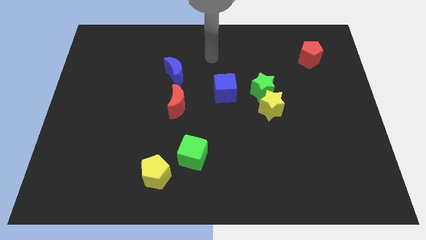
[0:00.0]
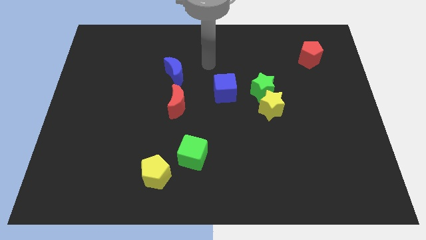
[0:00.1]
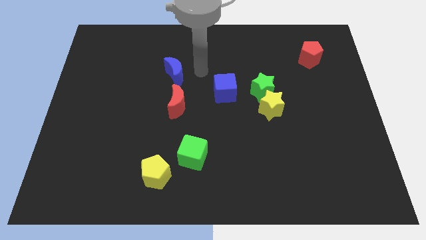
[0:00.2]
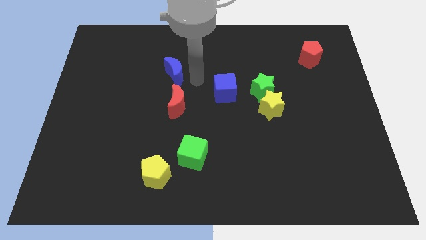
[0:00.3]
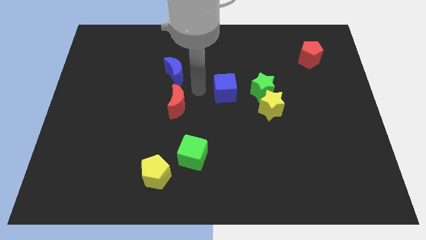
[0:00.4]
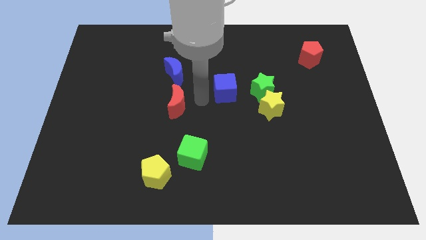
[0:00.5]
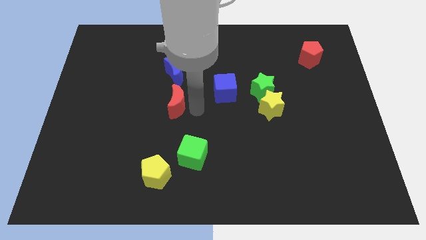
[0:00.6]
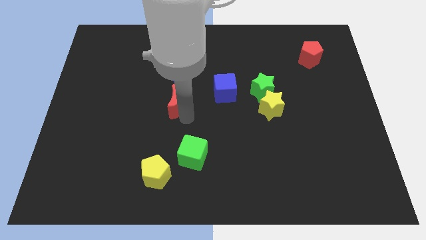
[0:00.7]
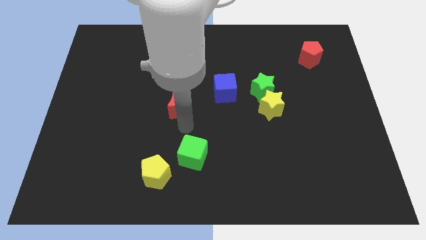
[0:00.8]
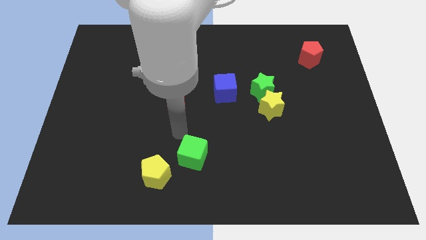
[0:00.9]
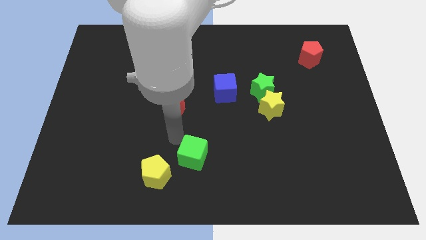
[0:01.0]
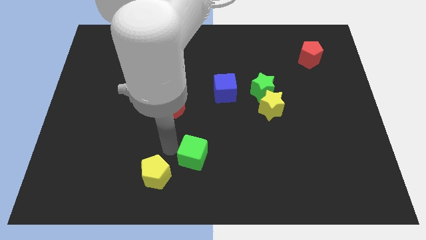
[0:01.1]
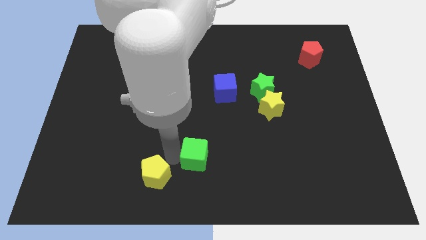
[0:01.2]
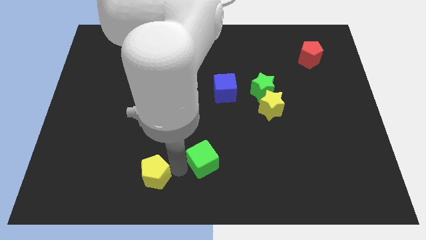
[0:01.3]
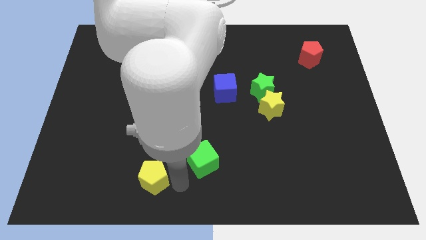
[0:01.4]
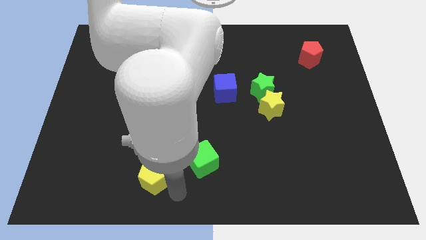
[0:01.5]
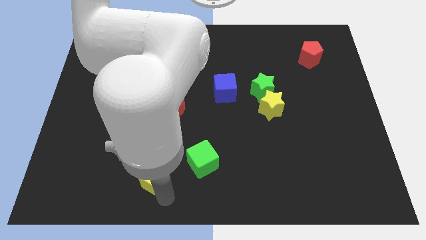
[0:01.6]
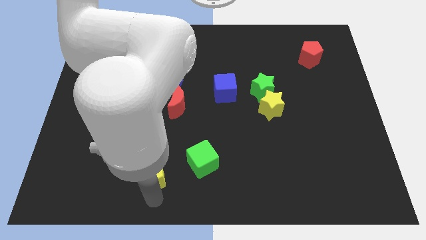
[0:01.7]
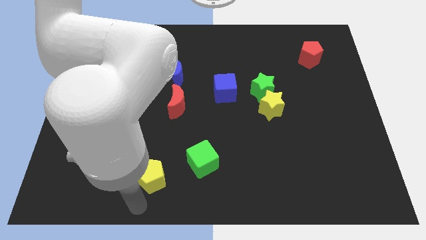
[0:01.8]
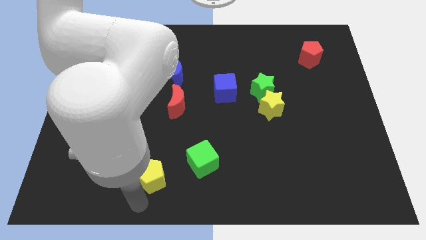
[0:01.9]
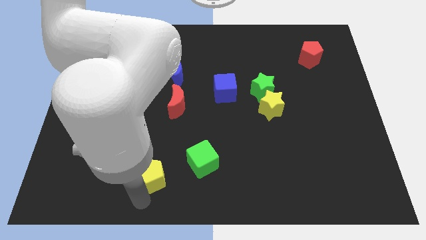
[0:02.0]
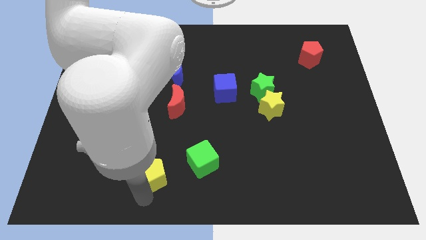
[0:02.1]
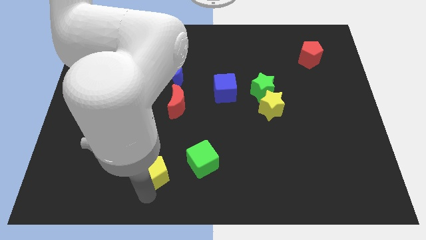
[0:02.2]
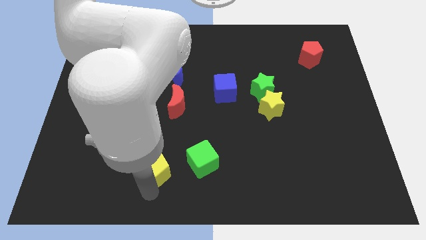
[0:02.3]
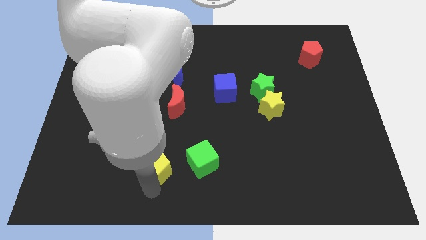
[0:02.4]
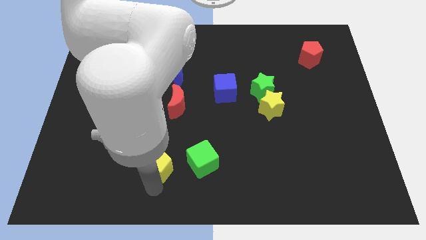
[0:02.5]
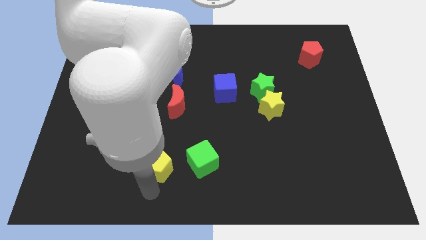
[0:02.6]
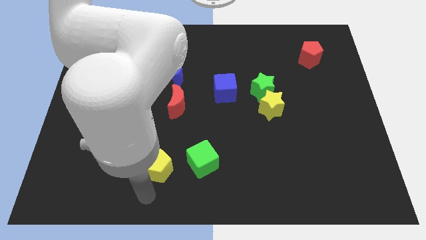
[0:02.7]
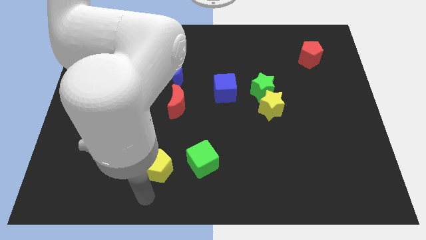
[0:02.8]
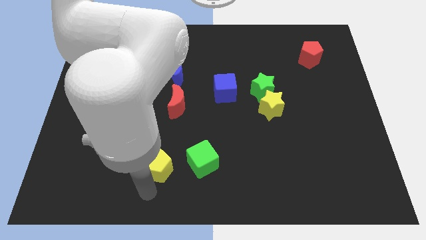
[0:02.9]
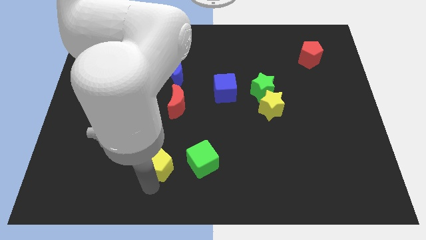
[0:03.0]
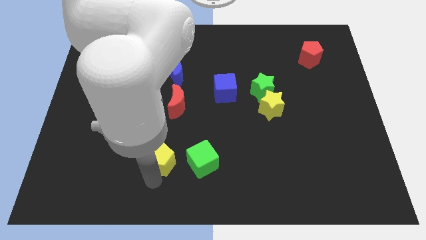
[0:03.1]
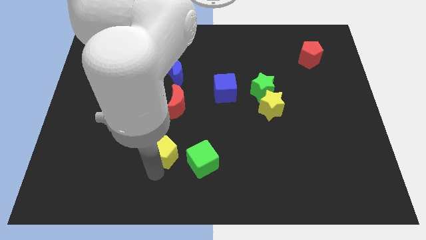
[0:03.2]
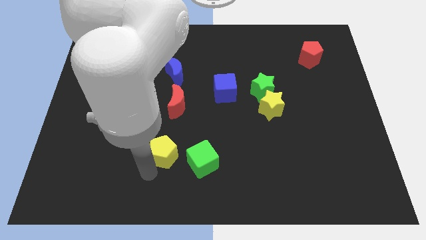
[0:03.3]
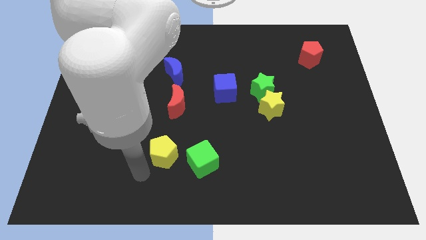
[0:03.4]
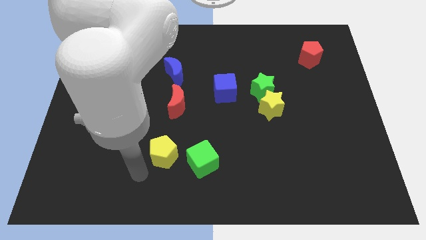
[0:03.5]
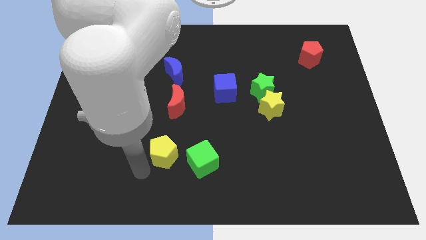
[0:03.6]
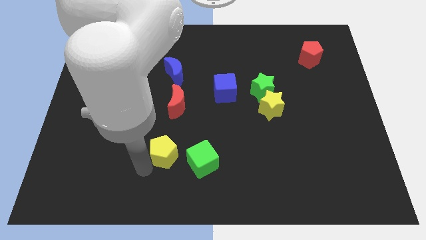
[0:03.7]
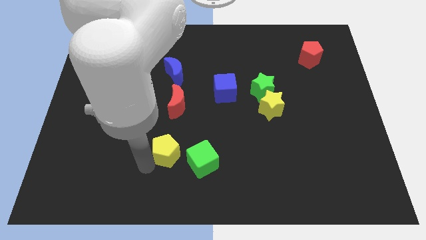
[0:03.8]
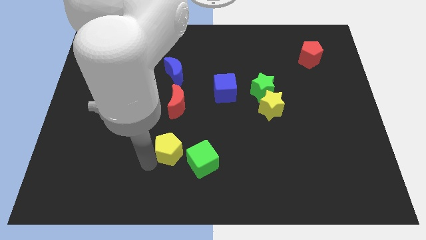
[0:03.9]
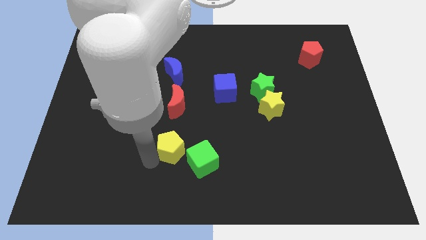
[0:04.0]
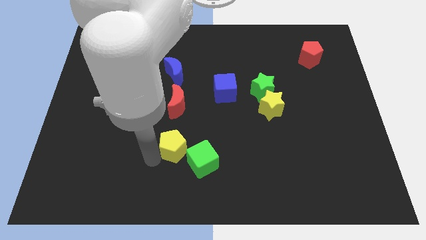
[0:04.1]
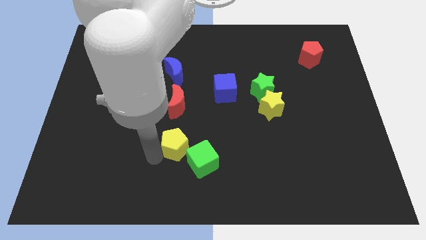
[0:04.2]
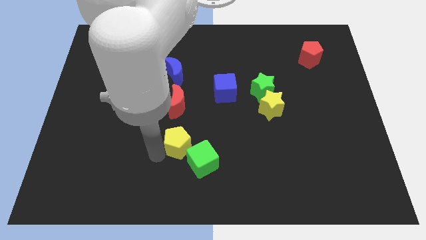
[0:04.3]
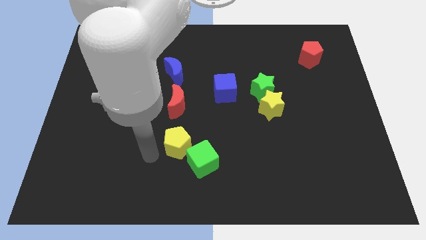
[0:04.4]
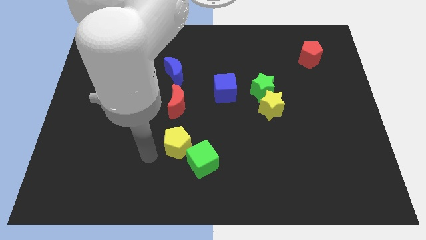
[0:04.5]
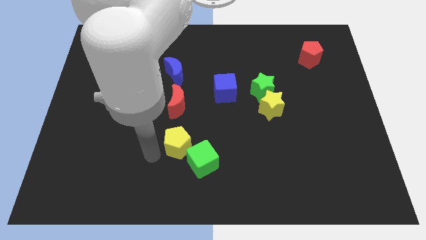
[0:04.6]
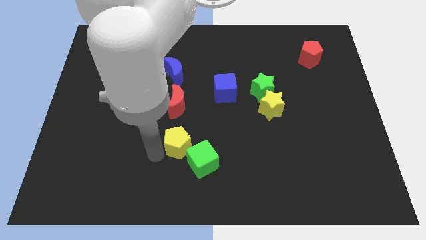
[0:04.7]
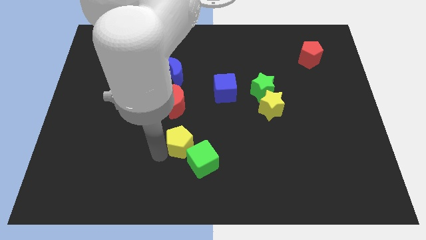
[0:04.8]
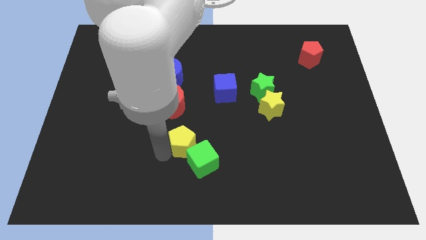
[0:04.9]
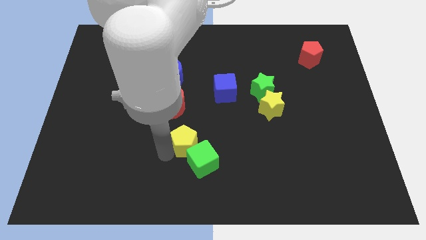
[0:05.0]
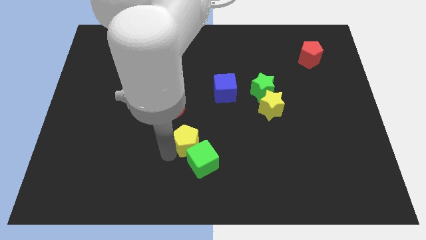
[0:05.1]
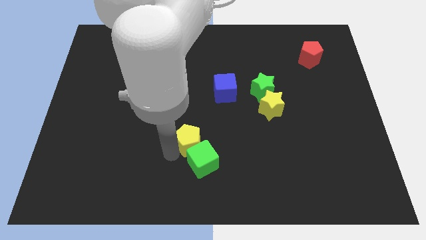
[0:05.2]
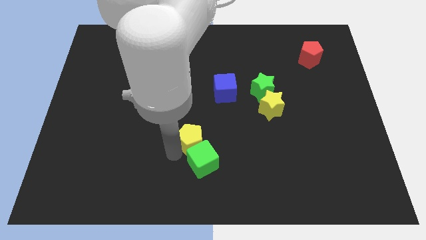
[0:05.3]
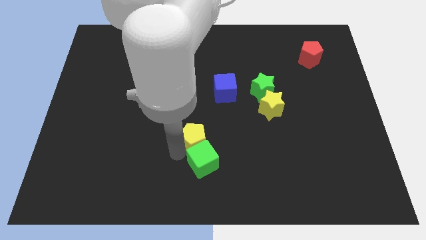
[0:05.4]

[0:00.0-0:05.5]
push the yellow pentagon to the center of the board

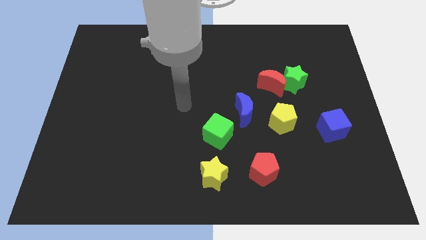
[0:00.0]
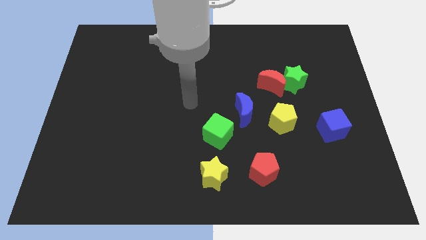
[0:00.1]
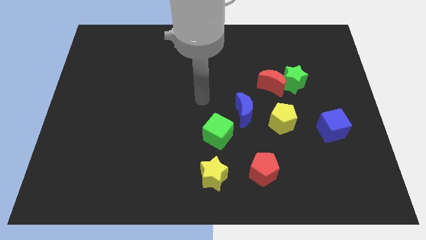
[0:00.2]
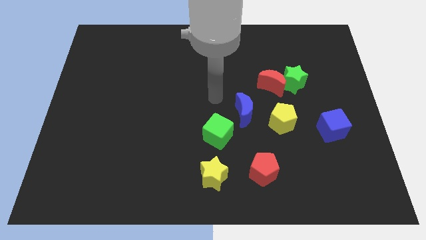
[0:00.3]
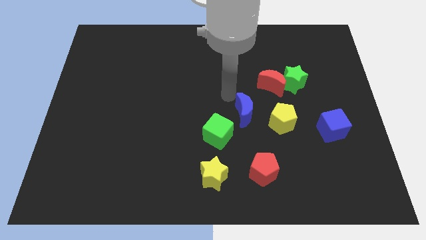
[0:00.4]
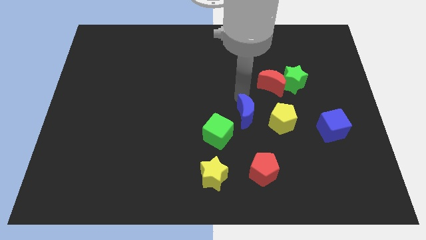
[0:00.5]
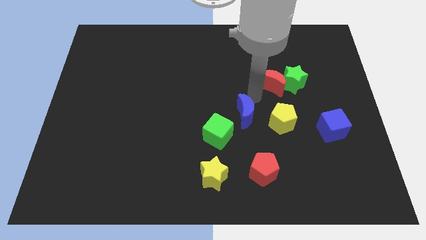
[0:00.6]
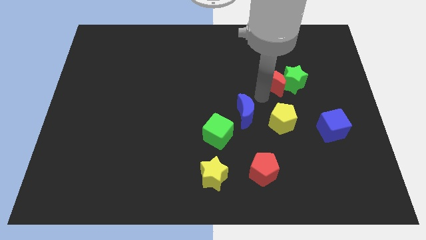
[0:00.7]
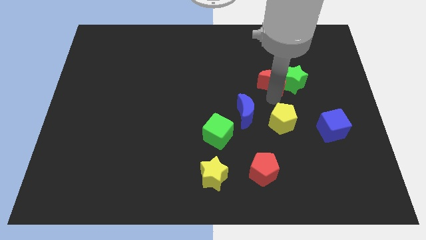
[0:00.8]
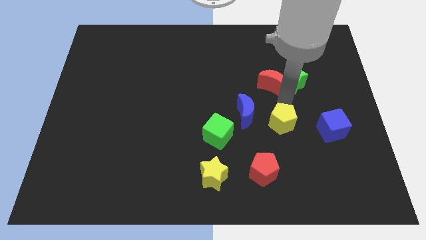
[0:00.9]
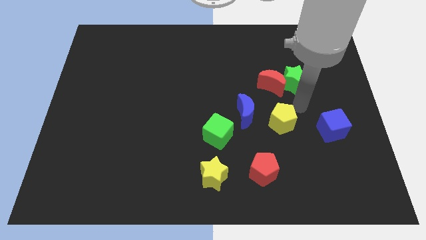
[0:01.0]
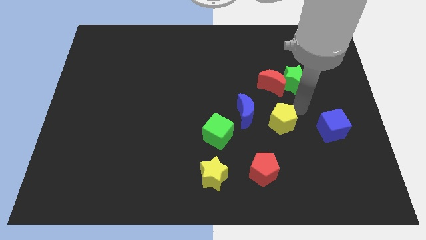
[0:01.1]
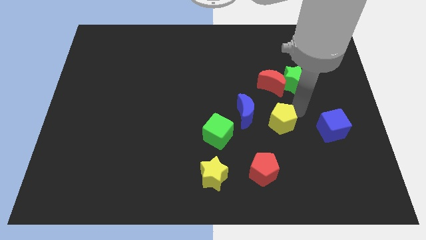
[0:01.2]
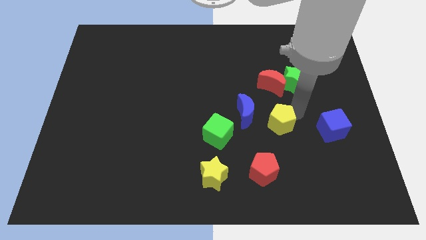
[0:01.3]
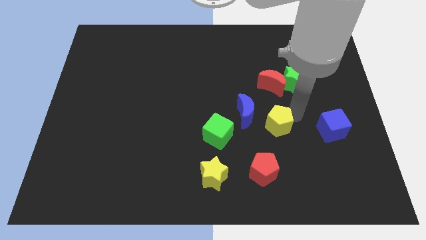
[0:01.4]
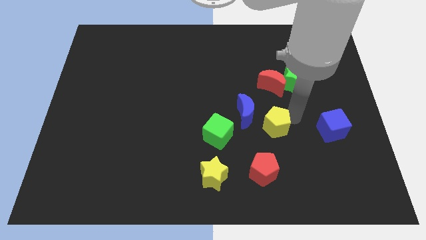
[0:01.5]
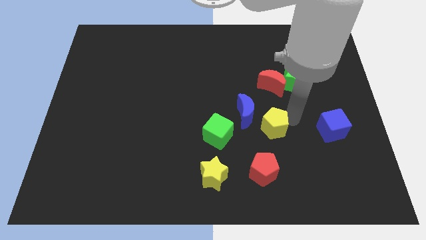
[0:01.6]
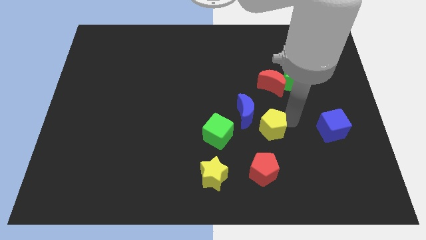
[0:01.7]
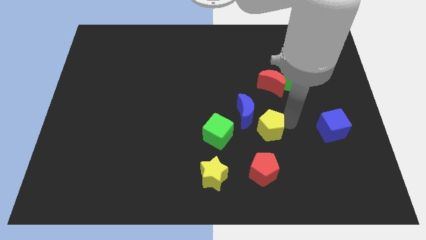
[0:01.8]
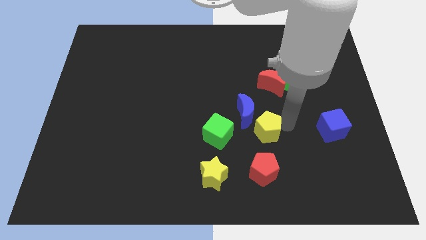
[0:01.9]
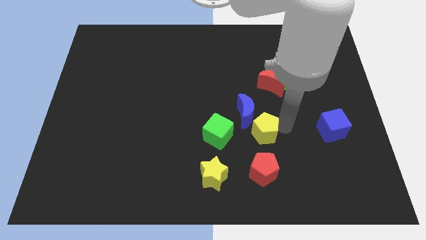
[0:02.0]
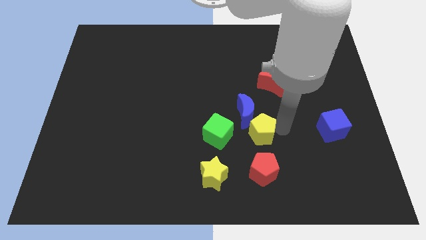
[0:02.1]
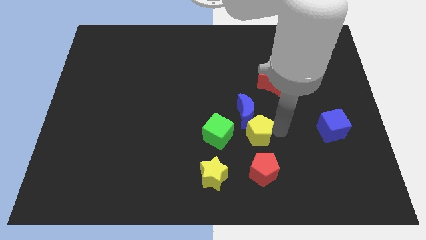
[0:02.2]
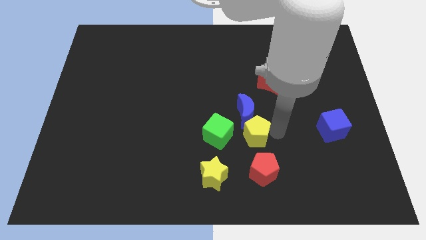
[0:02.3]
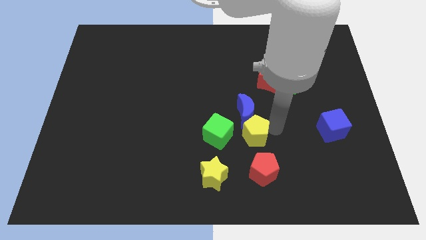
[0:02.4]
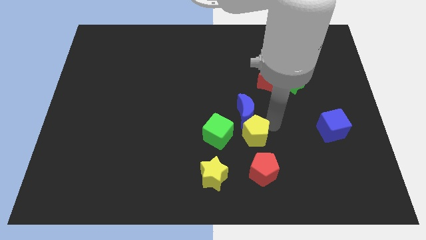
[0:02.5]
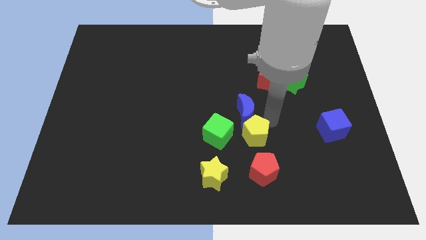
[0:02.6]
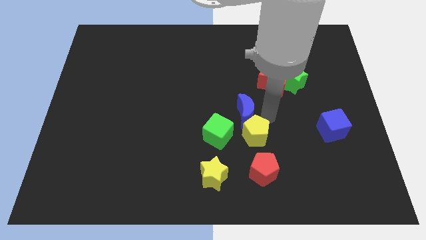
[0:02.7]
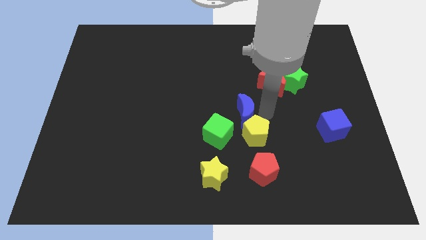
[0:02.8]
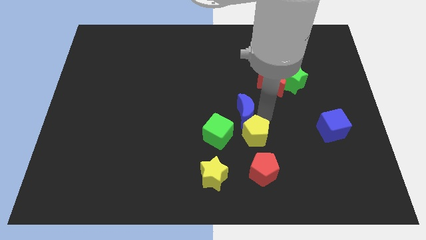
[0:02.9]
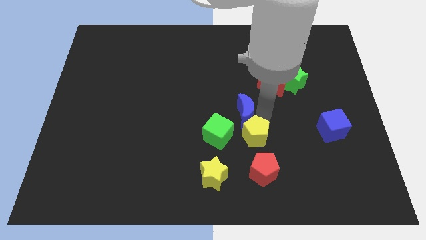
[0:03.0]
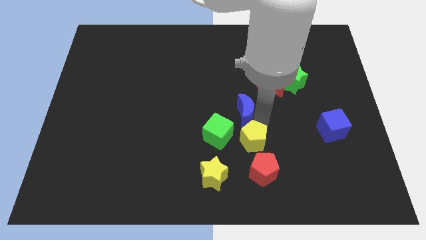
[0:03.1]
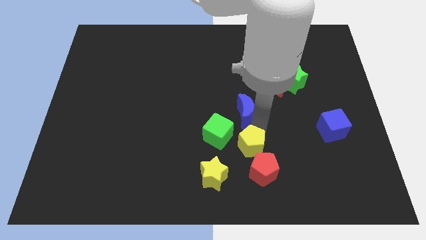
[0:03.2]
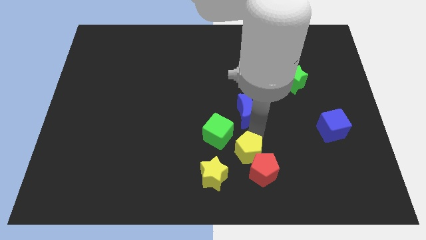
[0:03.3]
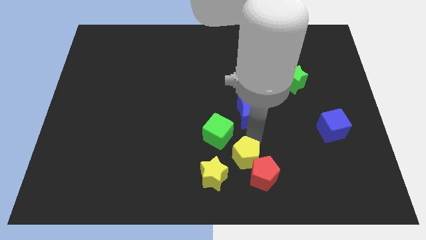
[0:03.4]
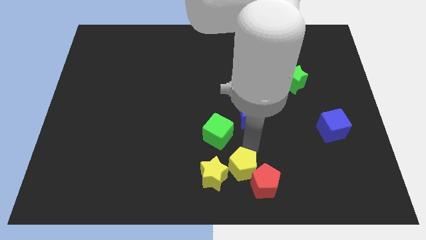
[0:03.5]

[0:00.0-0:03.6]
put the yellow pentagon to the bottom
